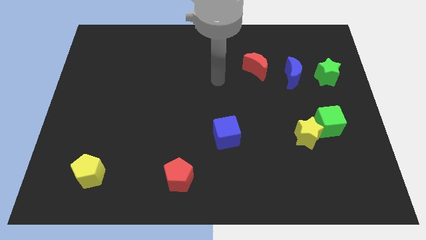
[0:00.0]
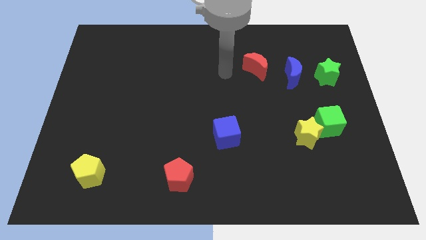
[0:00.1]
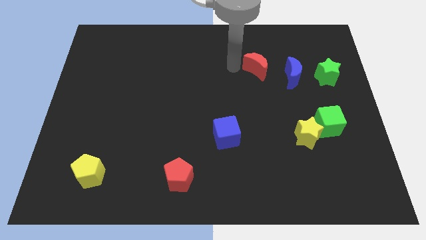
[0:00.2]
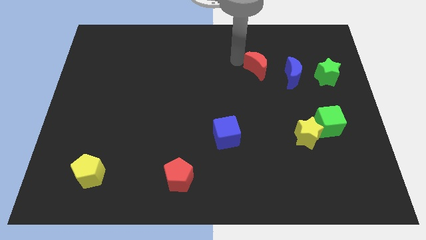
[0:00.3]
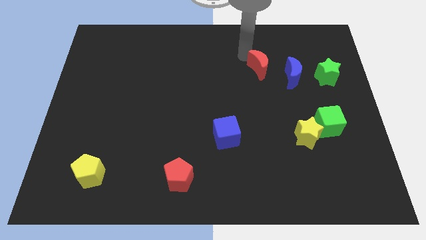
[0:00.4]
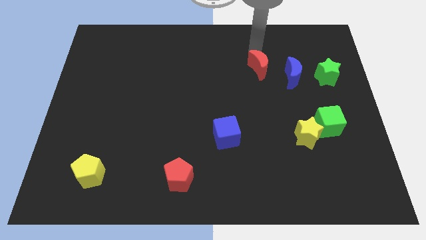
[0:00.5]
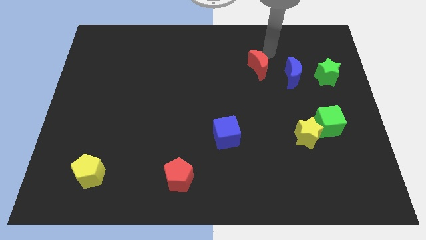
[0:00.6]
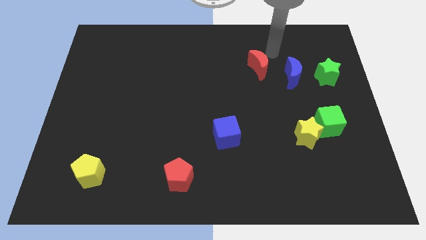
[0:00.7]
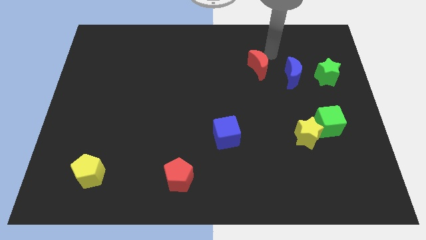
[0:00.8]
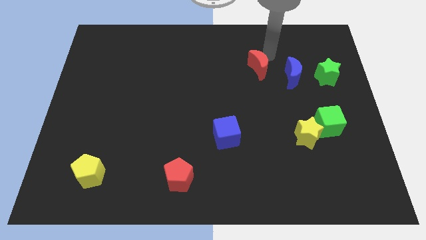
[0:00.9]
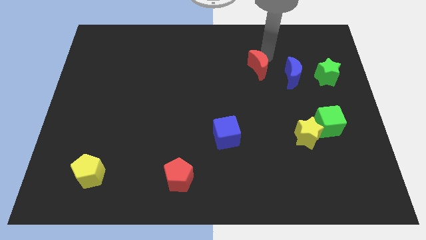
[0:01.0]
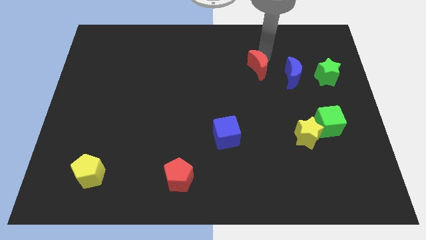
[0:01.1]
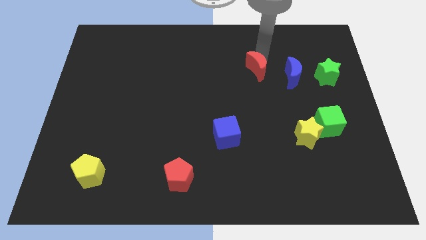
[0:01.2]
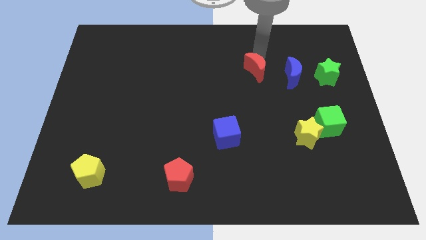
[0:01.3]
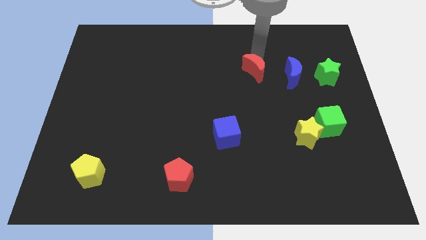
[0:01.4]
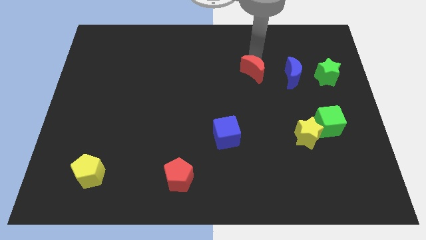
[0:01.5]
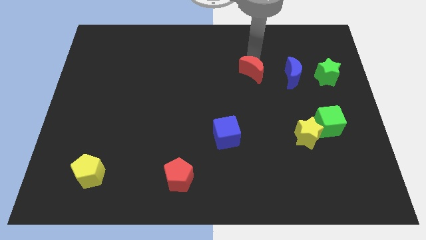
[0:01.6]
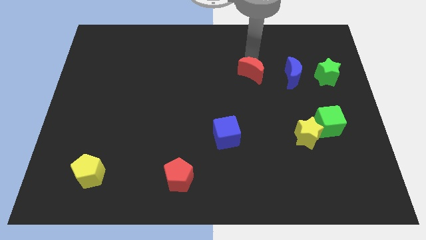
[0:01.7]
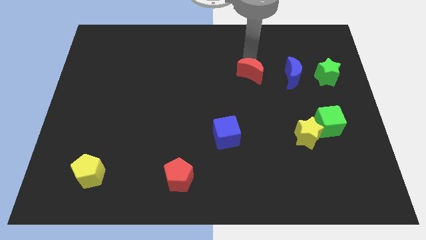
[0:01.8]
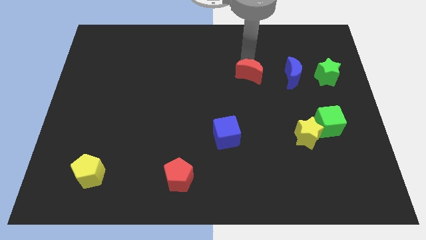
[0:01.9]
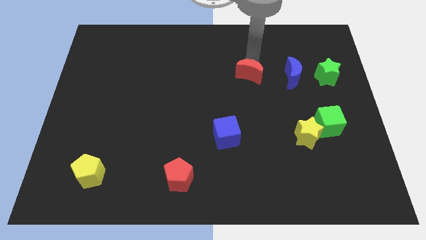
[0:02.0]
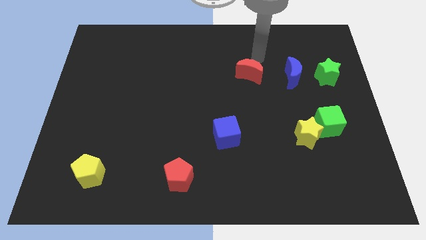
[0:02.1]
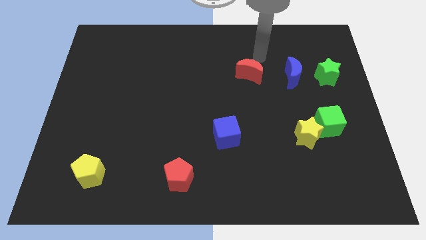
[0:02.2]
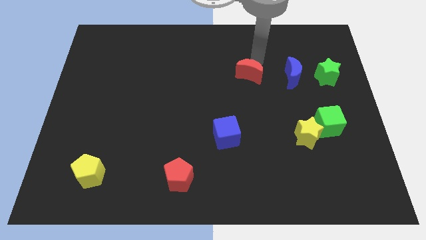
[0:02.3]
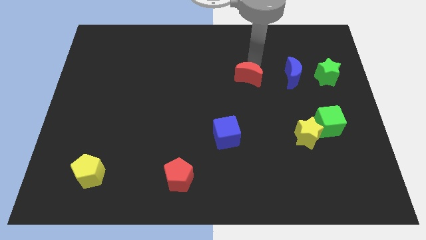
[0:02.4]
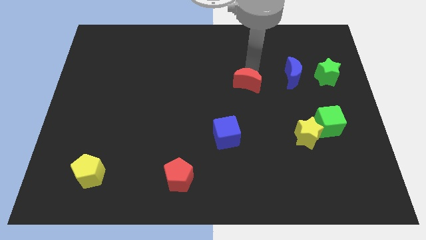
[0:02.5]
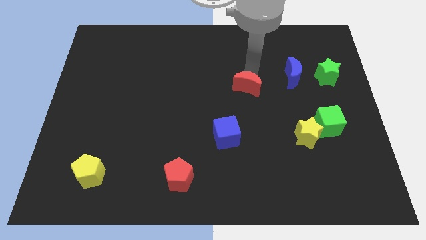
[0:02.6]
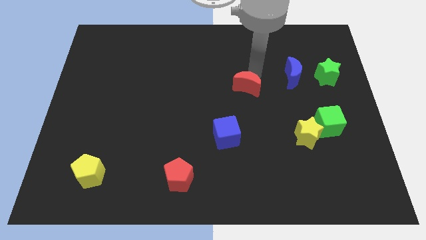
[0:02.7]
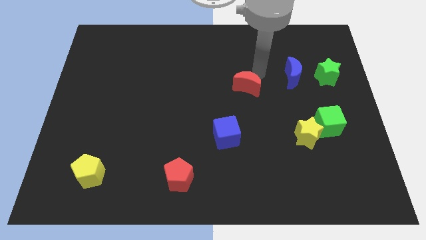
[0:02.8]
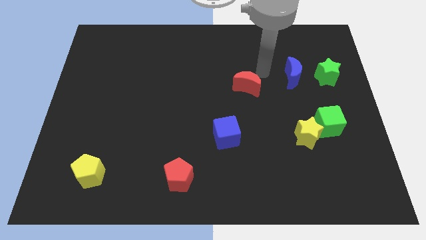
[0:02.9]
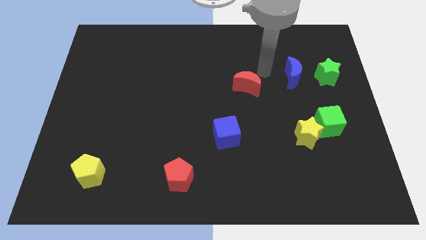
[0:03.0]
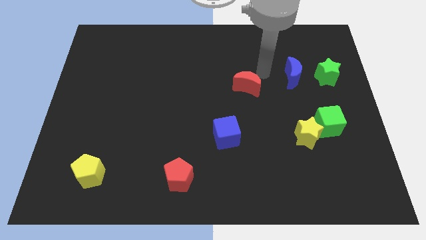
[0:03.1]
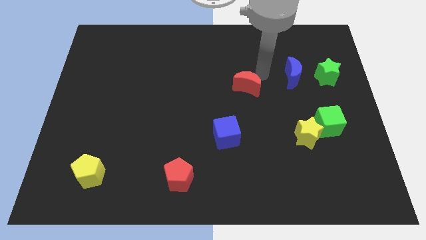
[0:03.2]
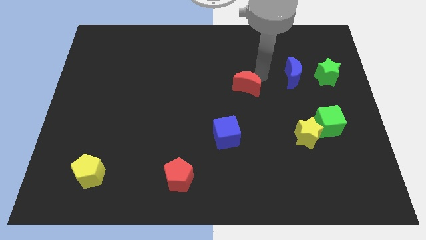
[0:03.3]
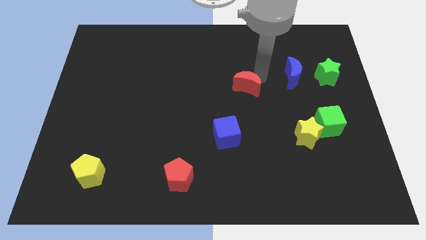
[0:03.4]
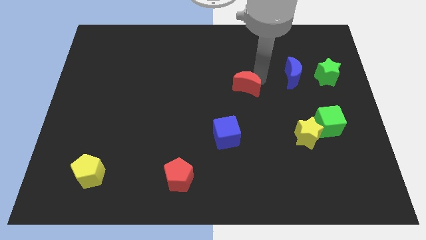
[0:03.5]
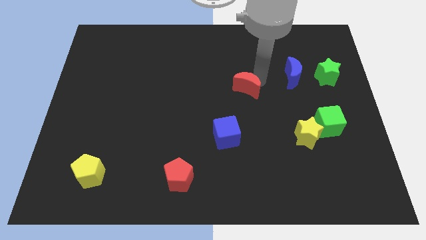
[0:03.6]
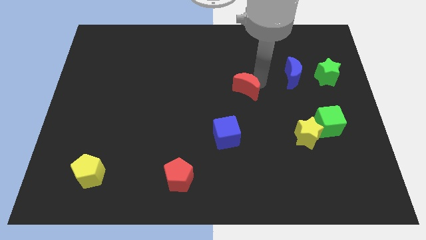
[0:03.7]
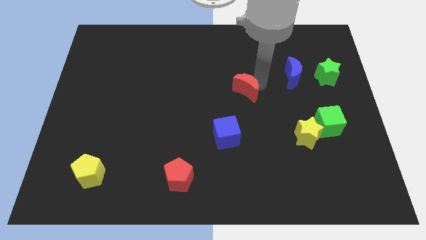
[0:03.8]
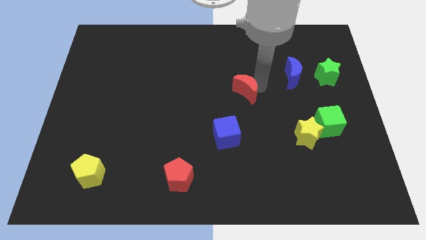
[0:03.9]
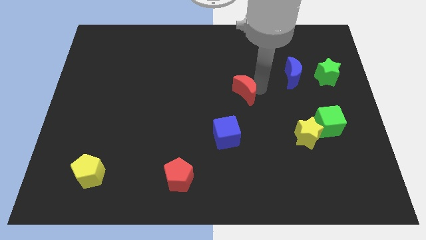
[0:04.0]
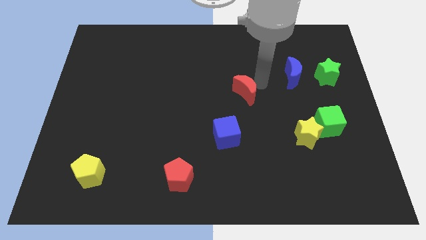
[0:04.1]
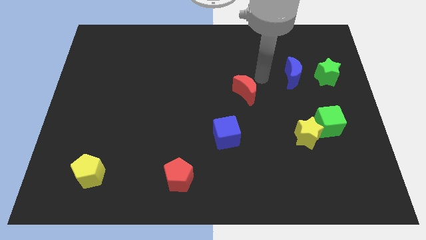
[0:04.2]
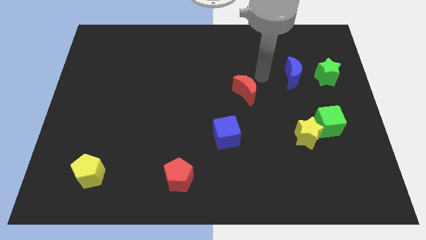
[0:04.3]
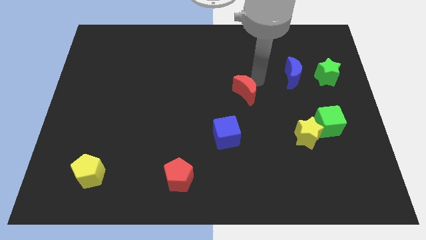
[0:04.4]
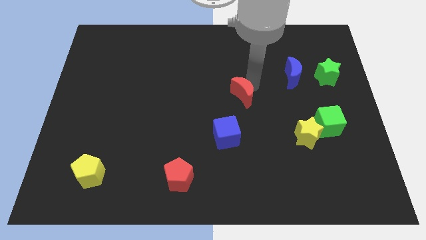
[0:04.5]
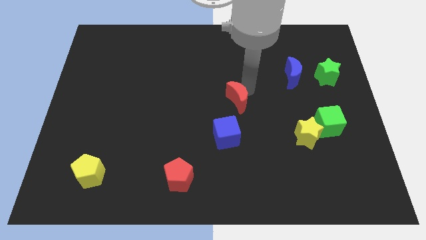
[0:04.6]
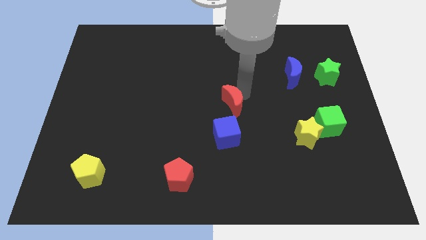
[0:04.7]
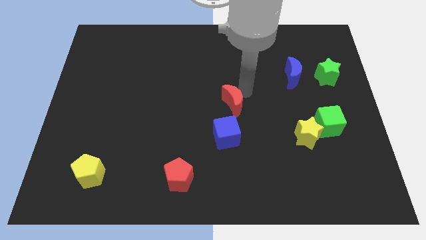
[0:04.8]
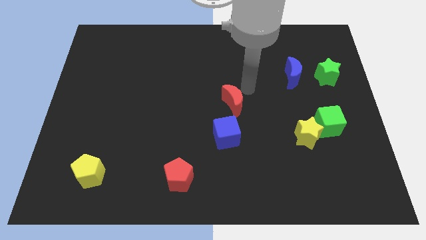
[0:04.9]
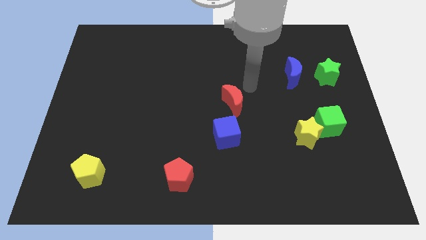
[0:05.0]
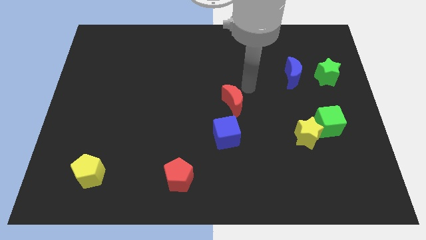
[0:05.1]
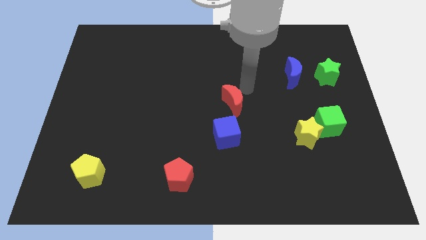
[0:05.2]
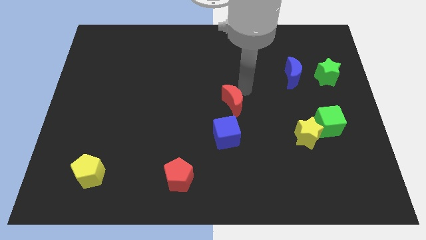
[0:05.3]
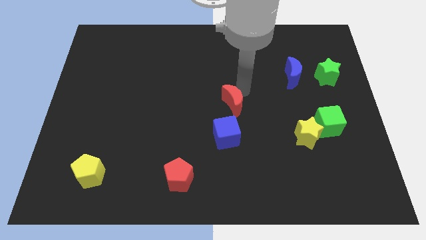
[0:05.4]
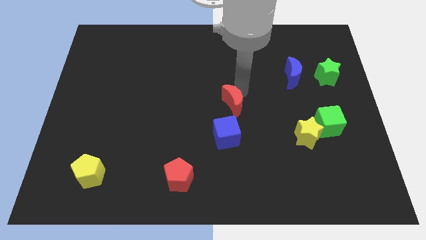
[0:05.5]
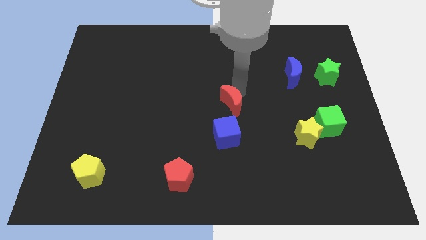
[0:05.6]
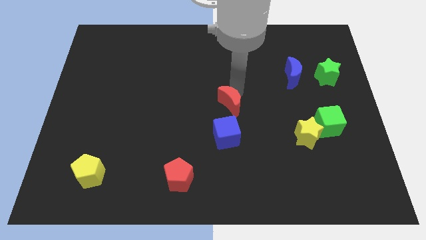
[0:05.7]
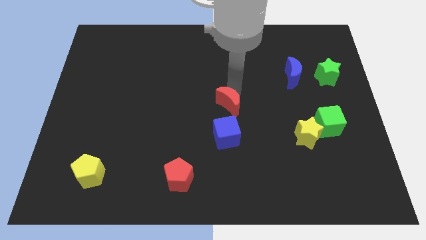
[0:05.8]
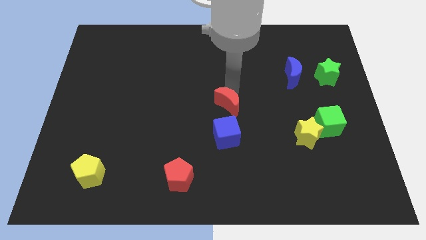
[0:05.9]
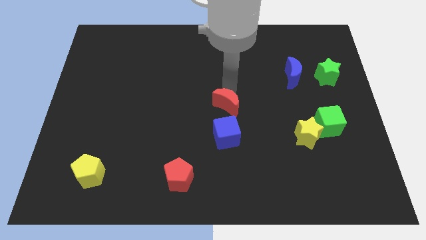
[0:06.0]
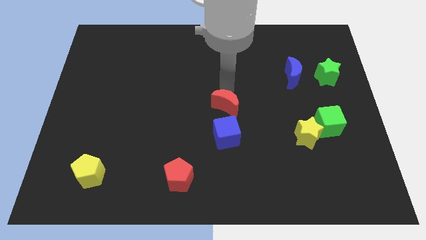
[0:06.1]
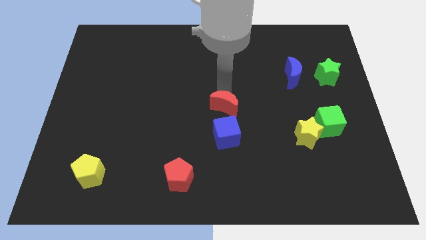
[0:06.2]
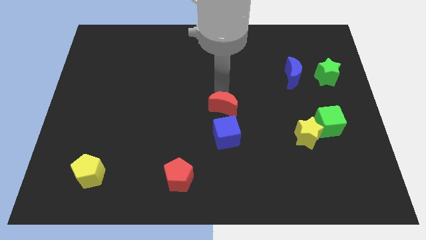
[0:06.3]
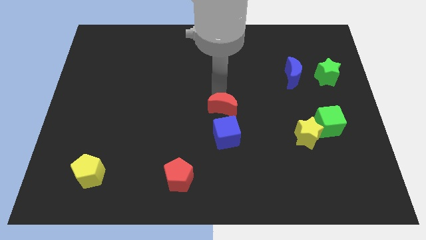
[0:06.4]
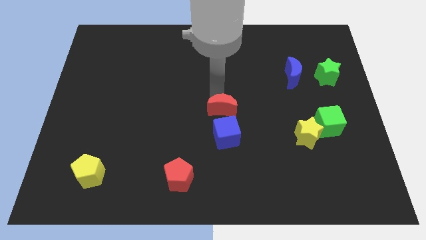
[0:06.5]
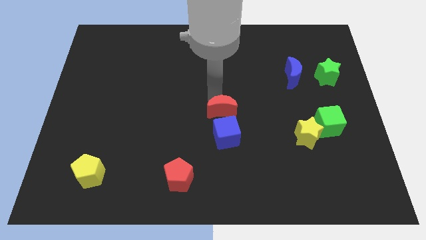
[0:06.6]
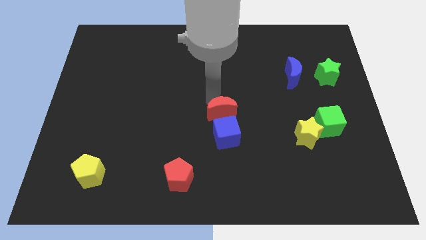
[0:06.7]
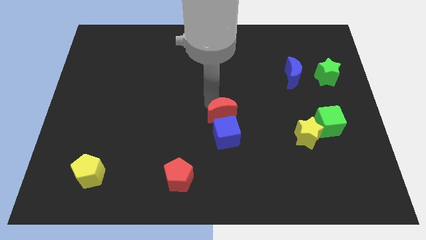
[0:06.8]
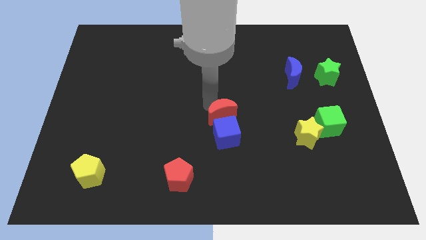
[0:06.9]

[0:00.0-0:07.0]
slide the red moon close to the blue cube

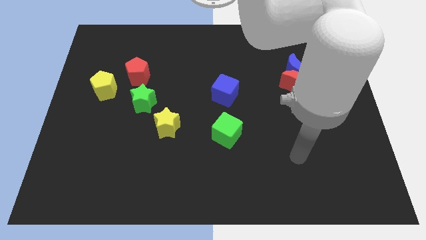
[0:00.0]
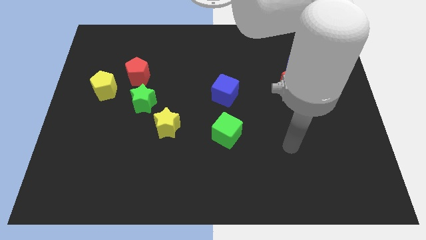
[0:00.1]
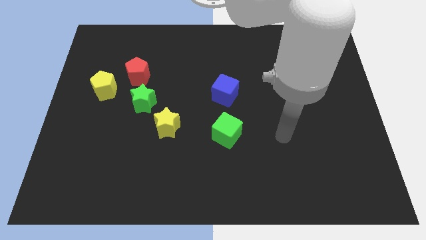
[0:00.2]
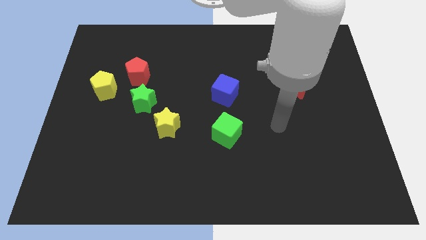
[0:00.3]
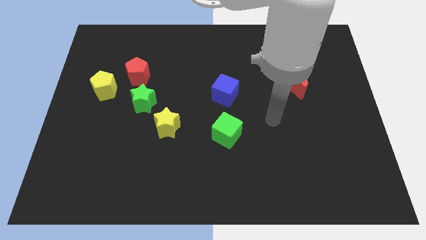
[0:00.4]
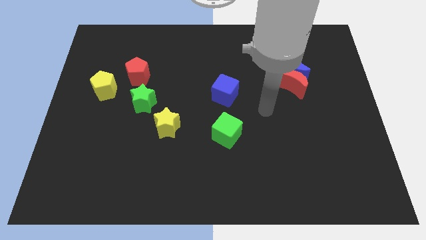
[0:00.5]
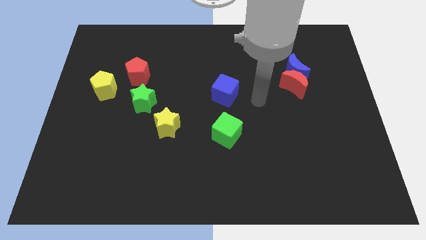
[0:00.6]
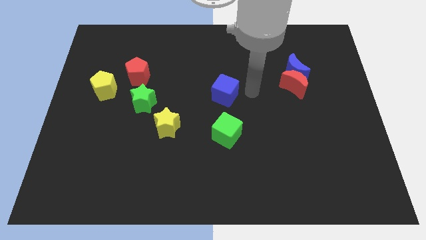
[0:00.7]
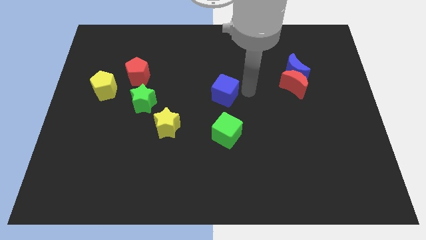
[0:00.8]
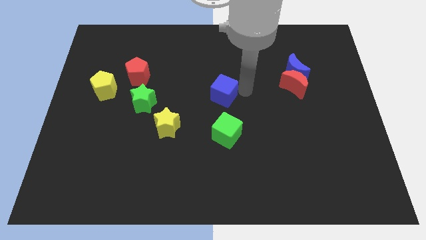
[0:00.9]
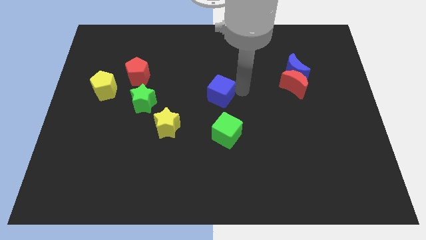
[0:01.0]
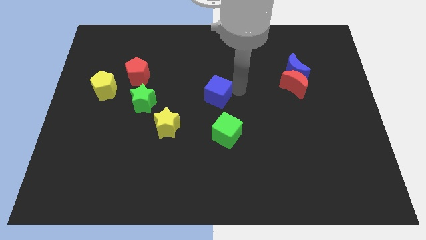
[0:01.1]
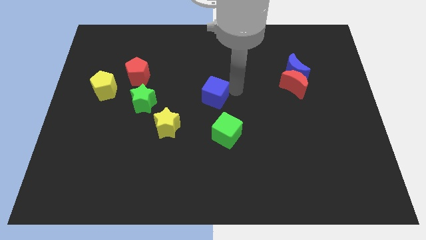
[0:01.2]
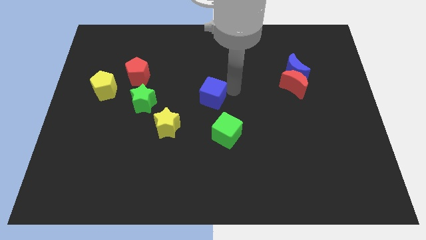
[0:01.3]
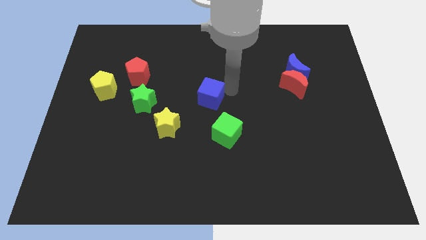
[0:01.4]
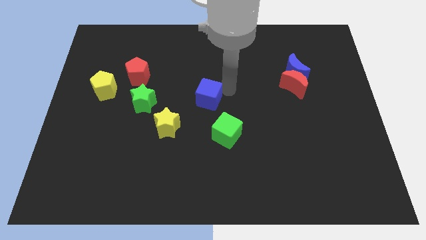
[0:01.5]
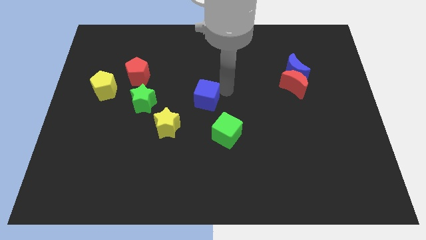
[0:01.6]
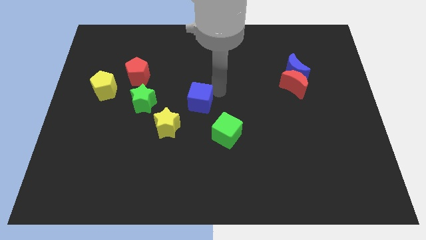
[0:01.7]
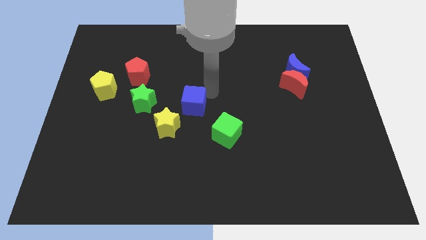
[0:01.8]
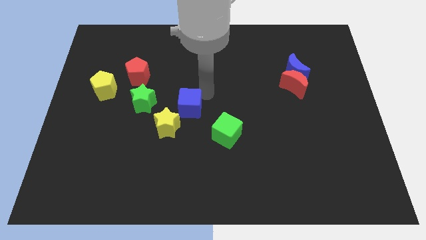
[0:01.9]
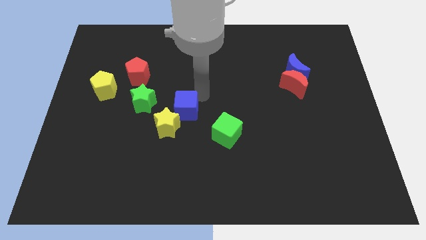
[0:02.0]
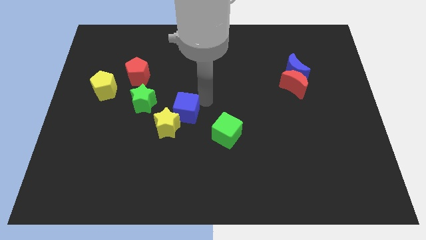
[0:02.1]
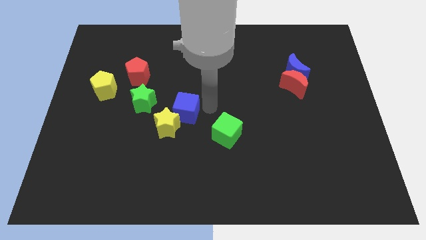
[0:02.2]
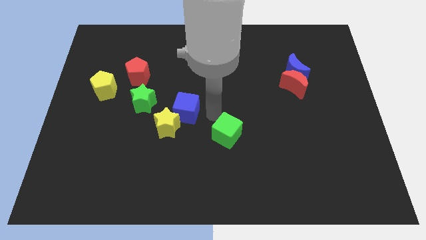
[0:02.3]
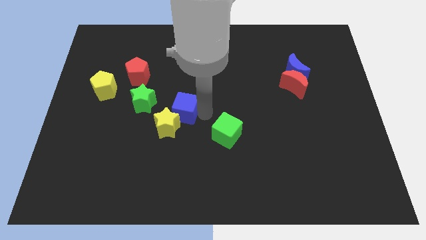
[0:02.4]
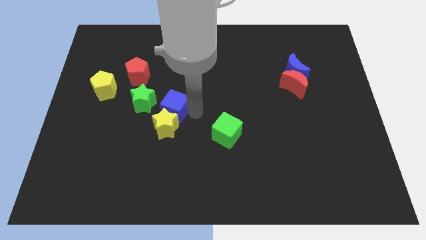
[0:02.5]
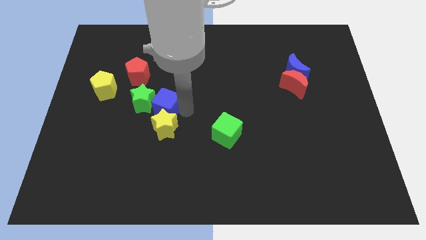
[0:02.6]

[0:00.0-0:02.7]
put the blue cube to the green star
